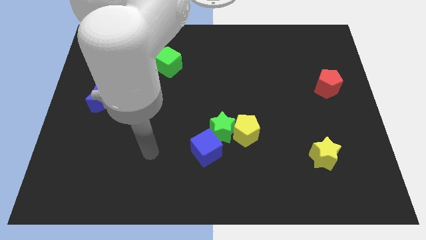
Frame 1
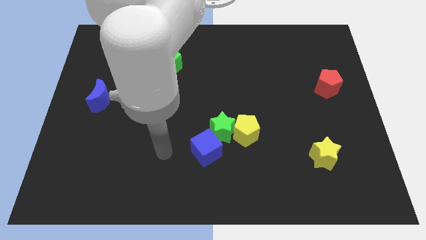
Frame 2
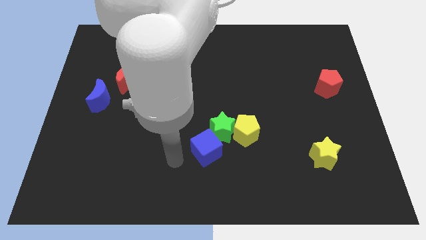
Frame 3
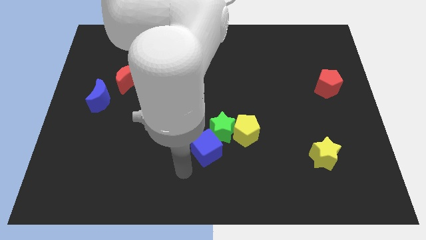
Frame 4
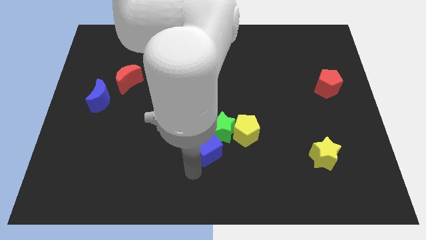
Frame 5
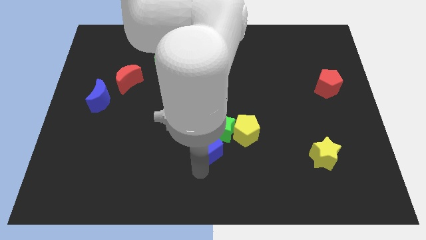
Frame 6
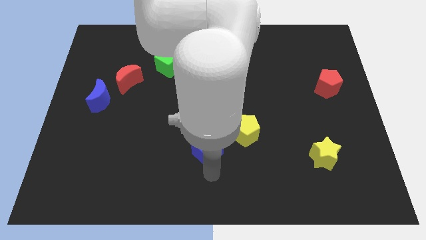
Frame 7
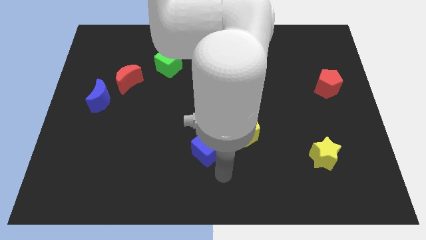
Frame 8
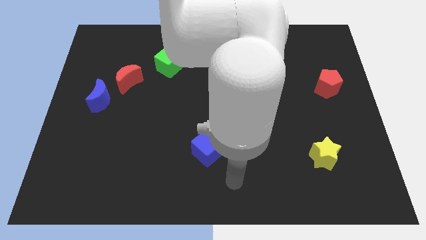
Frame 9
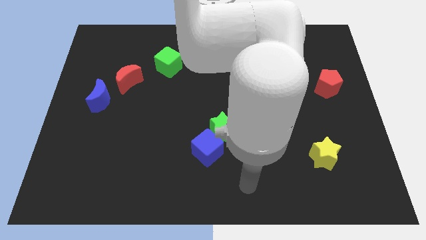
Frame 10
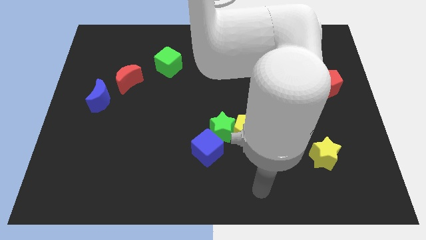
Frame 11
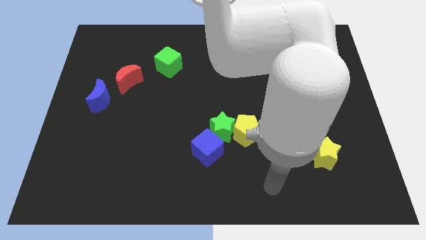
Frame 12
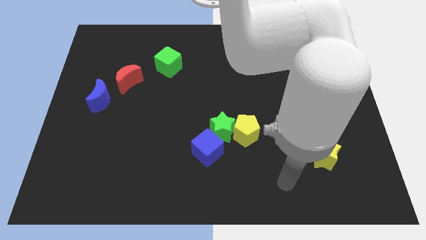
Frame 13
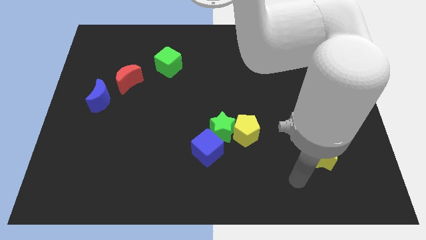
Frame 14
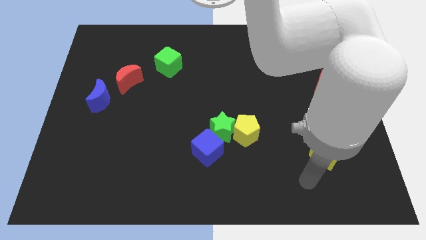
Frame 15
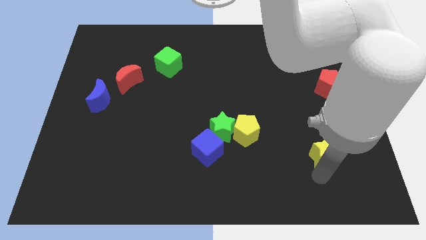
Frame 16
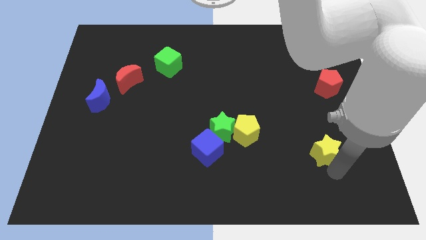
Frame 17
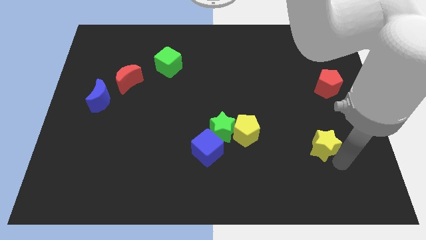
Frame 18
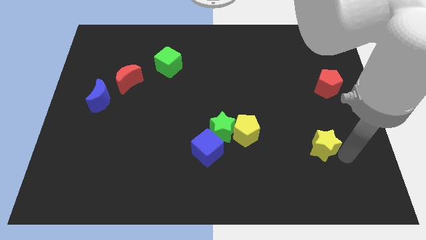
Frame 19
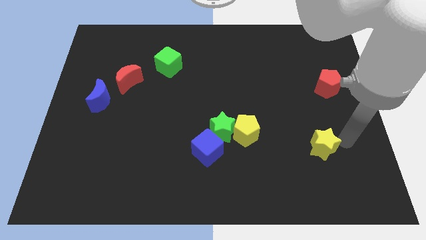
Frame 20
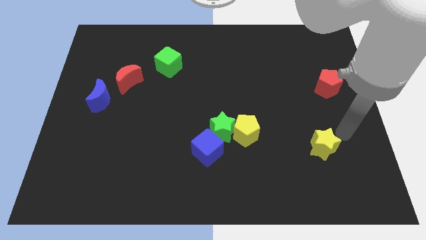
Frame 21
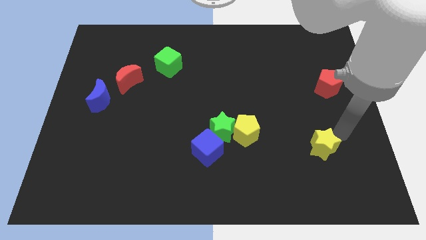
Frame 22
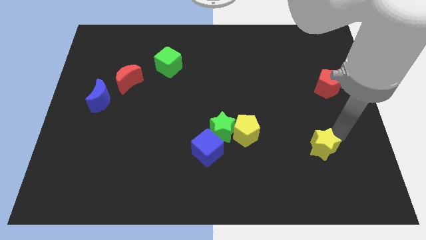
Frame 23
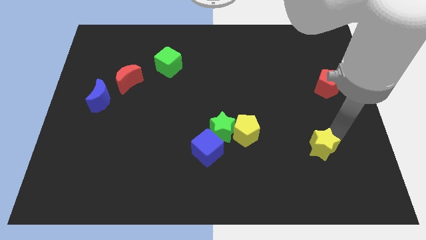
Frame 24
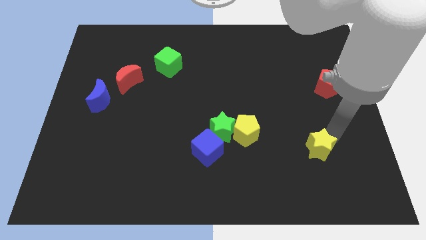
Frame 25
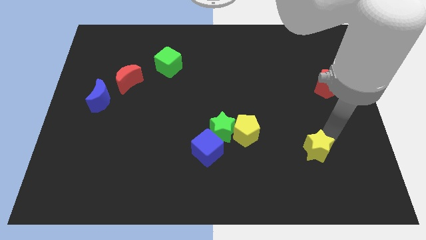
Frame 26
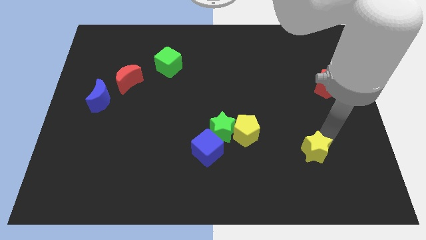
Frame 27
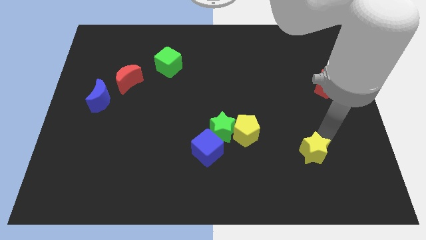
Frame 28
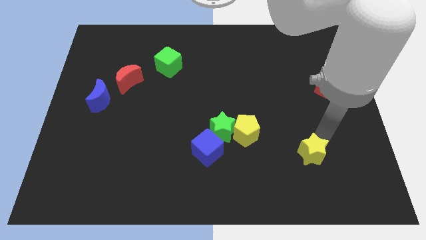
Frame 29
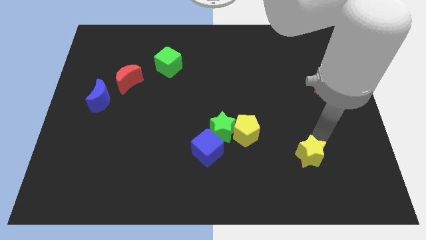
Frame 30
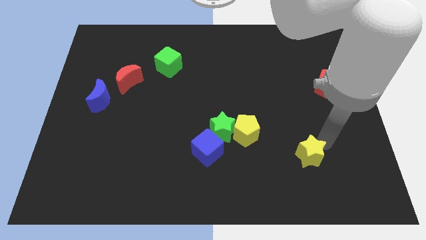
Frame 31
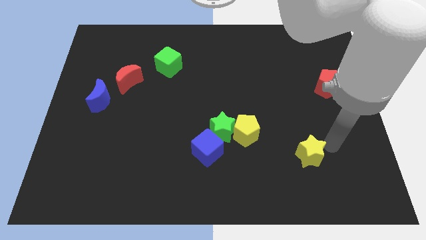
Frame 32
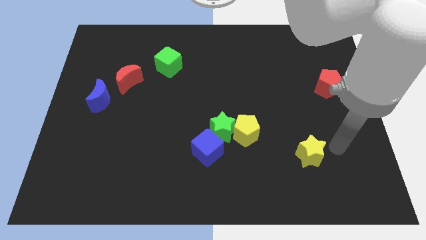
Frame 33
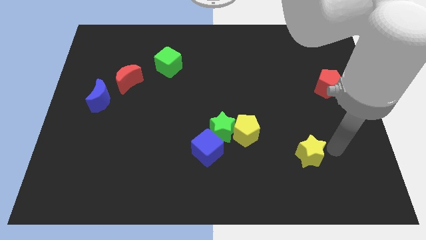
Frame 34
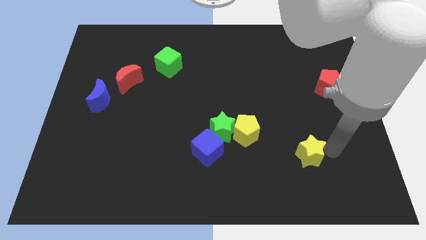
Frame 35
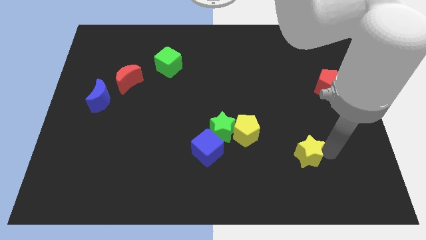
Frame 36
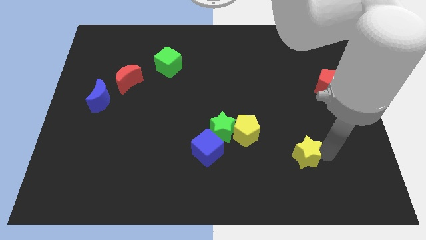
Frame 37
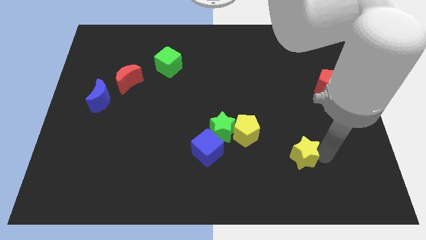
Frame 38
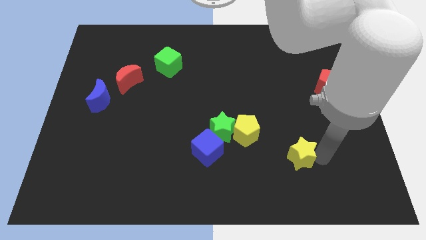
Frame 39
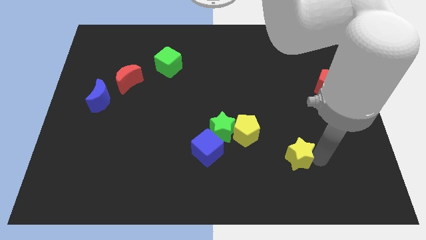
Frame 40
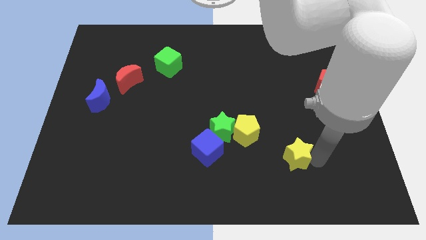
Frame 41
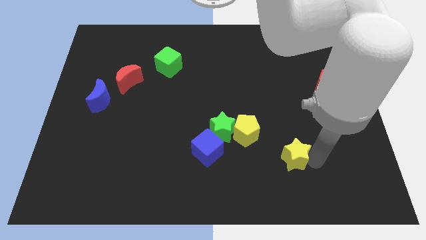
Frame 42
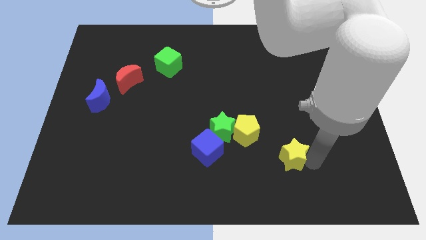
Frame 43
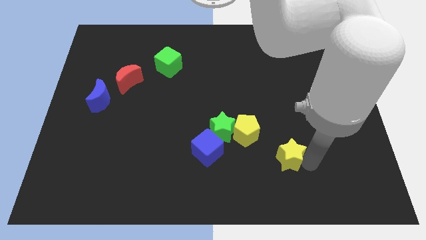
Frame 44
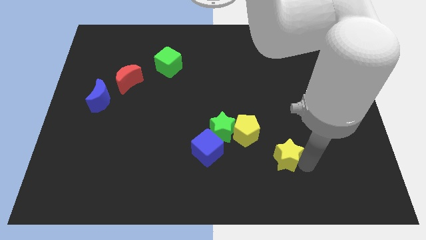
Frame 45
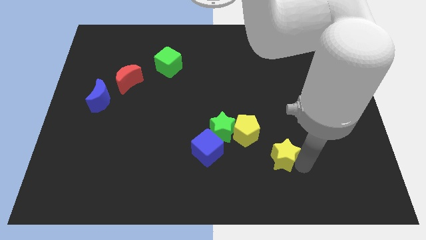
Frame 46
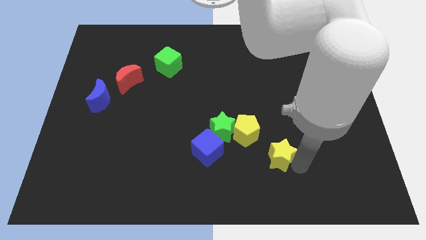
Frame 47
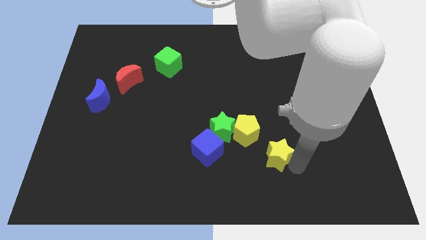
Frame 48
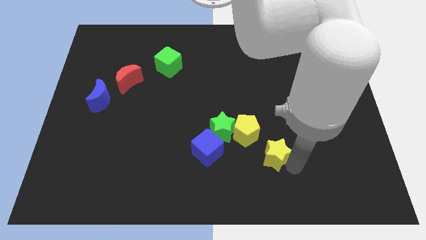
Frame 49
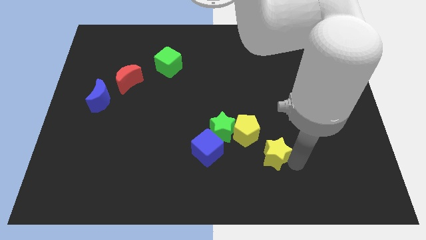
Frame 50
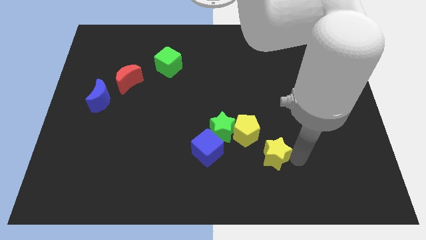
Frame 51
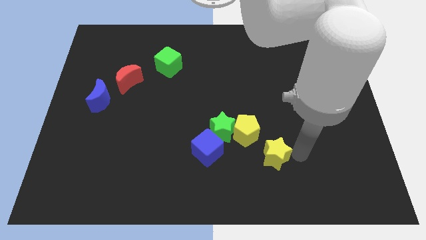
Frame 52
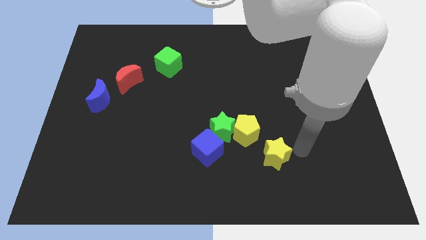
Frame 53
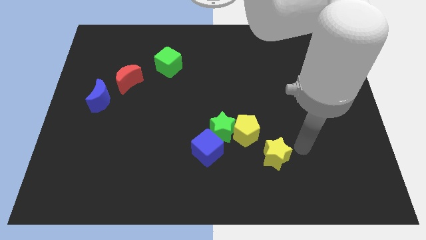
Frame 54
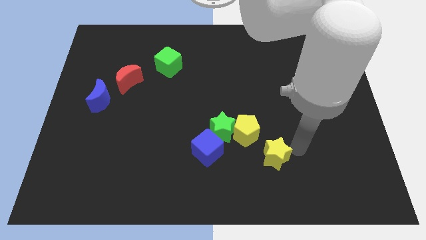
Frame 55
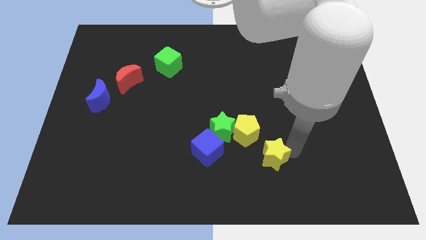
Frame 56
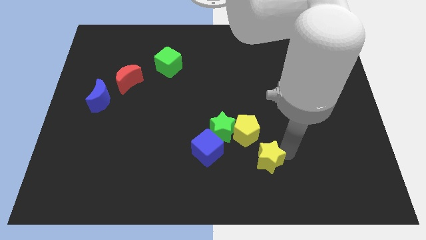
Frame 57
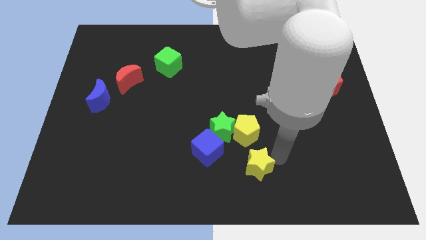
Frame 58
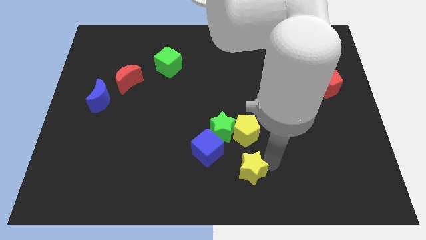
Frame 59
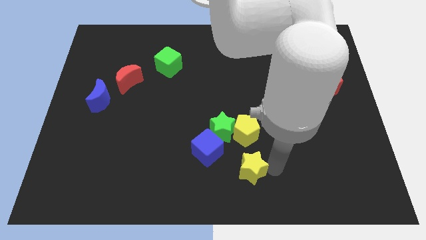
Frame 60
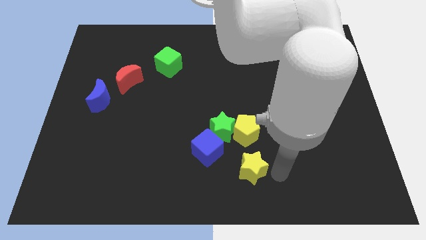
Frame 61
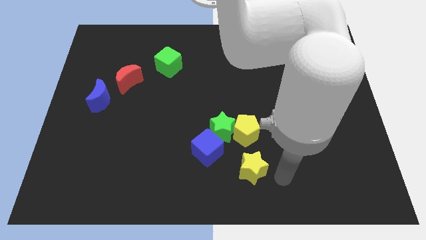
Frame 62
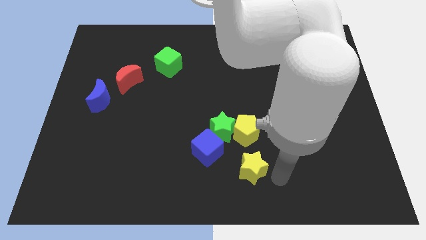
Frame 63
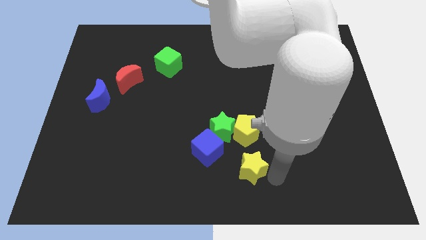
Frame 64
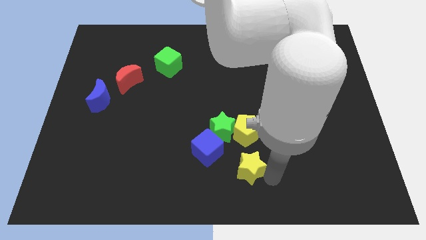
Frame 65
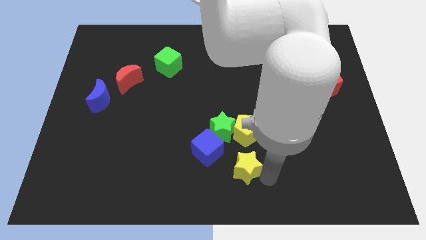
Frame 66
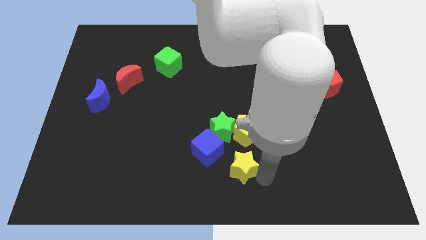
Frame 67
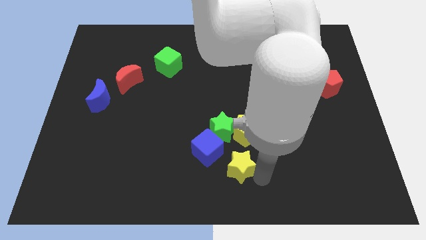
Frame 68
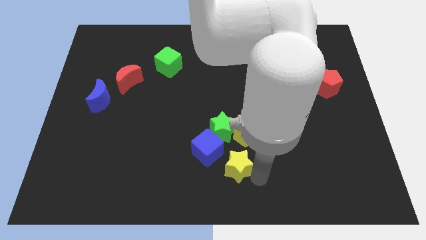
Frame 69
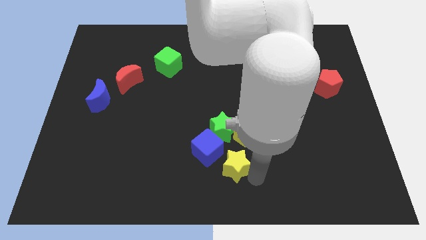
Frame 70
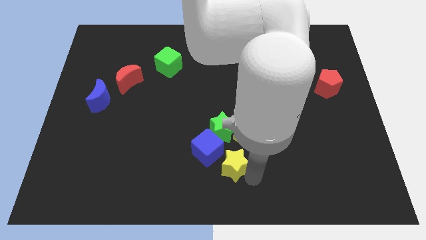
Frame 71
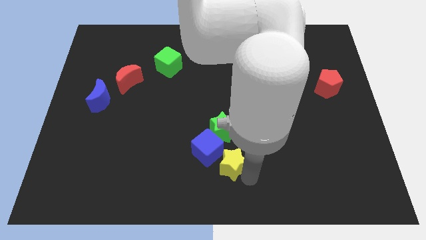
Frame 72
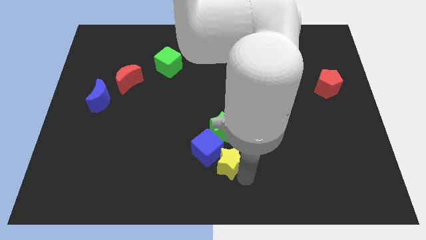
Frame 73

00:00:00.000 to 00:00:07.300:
move the yellow star to the left

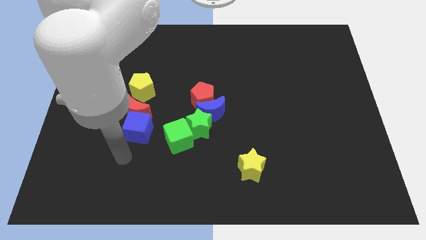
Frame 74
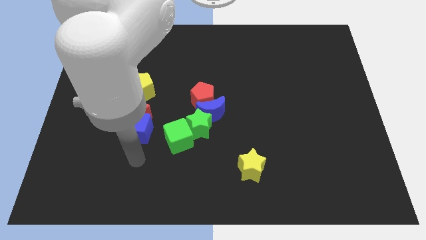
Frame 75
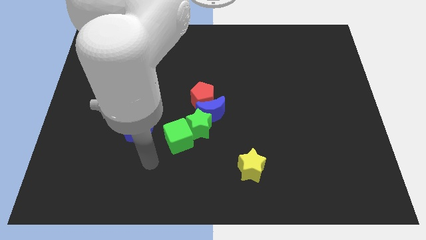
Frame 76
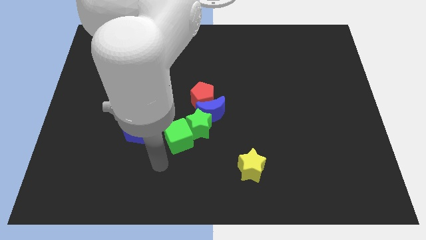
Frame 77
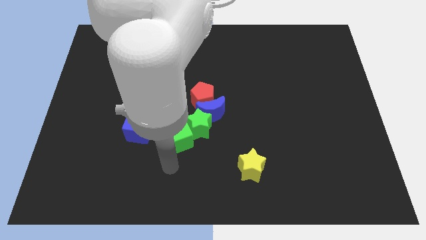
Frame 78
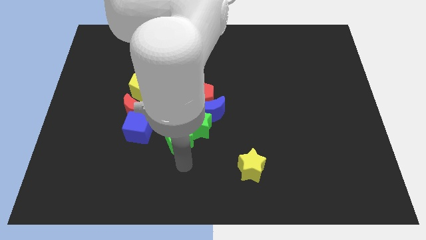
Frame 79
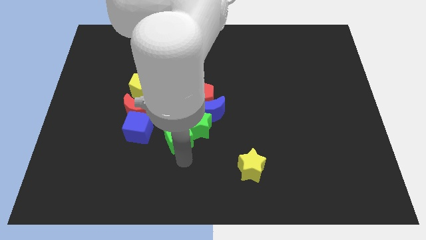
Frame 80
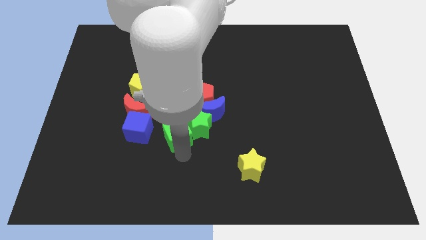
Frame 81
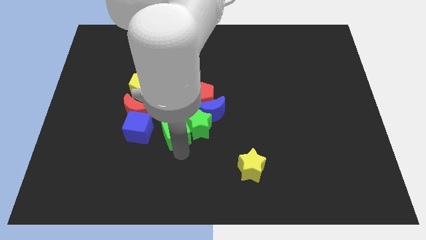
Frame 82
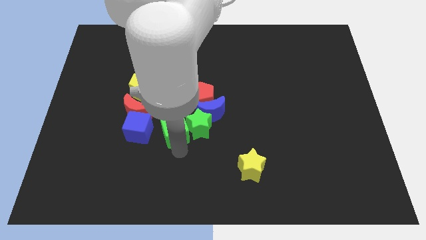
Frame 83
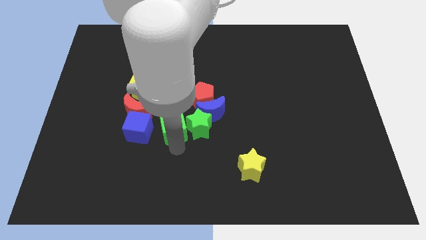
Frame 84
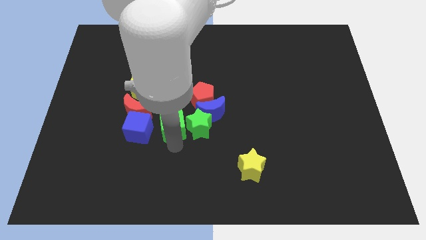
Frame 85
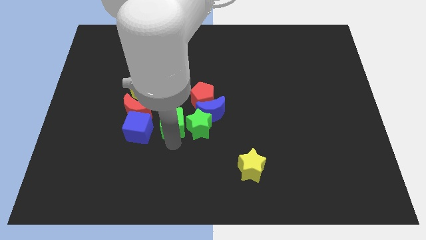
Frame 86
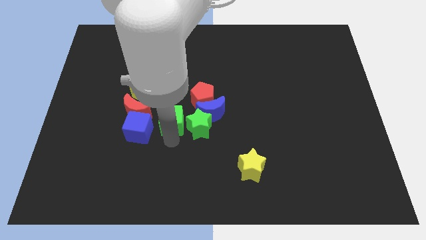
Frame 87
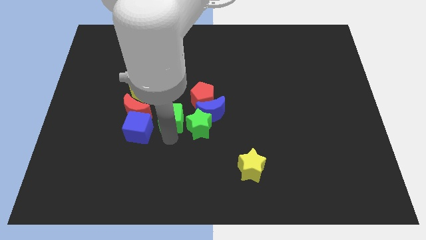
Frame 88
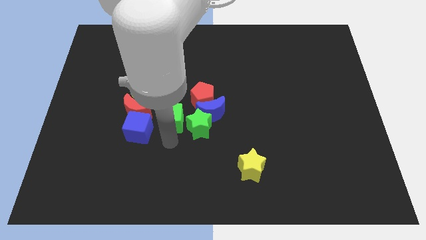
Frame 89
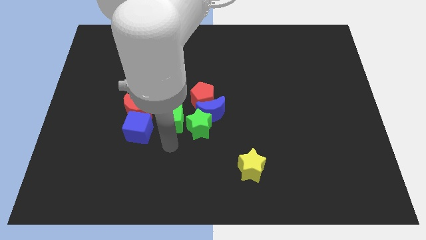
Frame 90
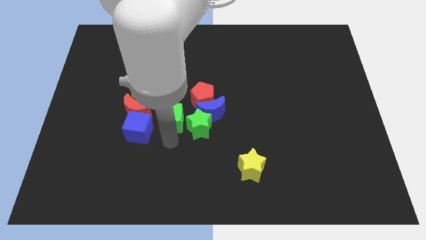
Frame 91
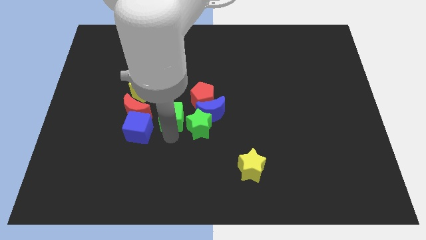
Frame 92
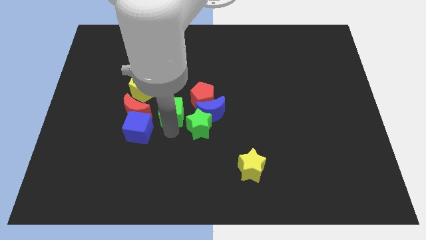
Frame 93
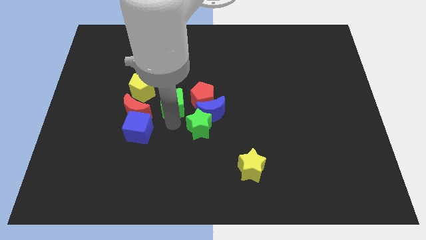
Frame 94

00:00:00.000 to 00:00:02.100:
push the green cube upwards and left diagonally somewhat
